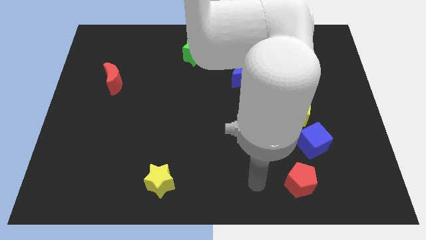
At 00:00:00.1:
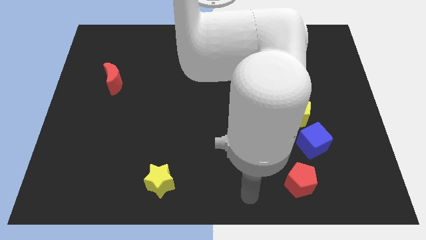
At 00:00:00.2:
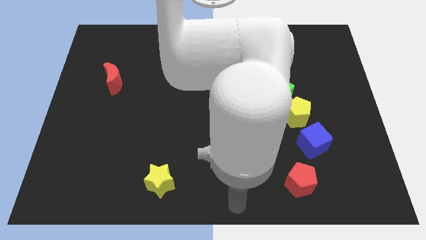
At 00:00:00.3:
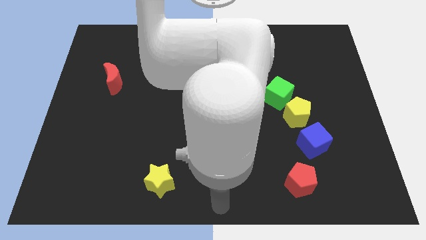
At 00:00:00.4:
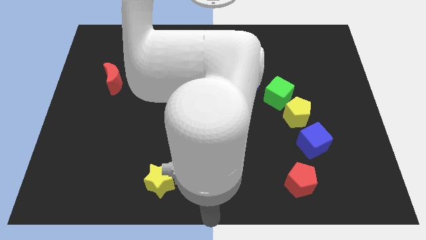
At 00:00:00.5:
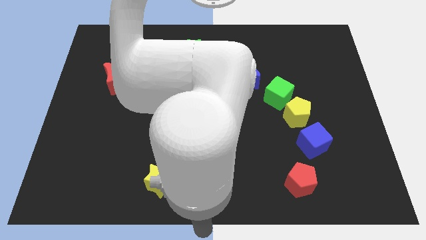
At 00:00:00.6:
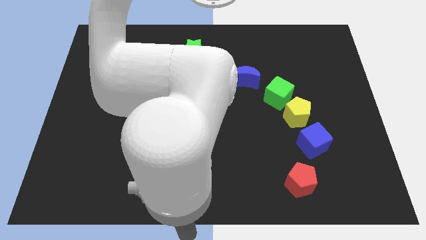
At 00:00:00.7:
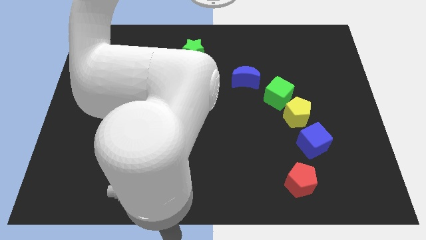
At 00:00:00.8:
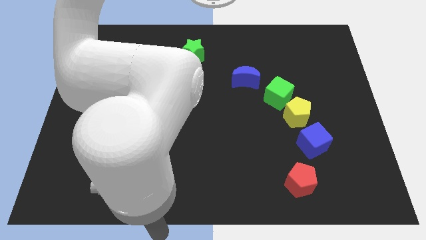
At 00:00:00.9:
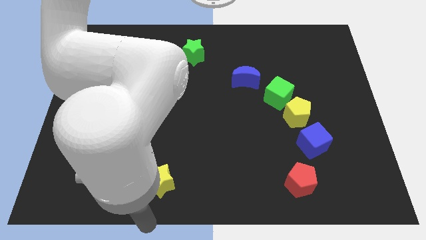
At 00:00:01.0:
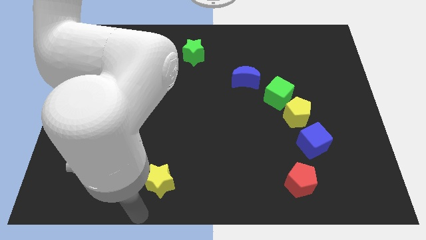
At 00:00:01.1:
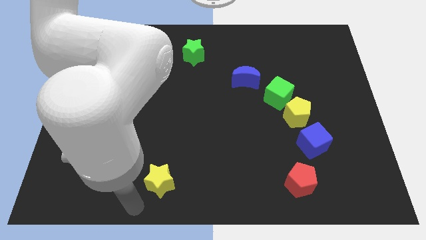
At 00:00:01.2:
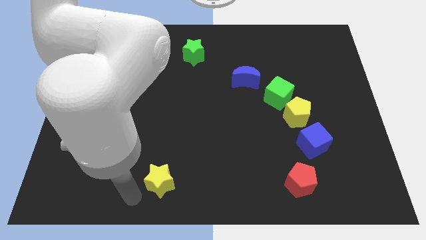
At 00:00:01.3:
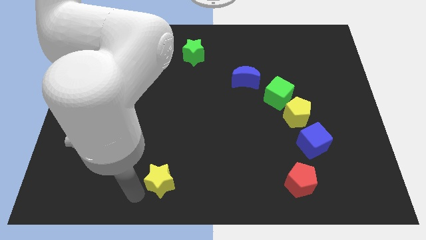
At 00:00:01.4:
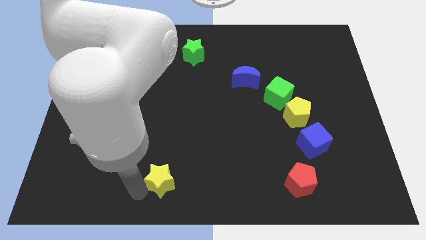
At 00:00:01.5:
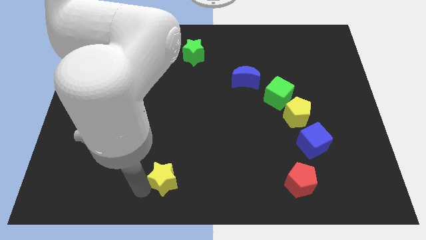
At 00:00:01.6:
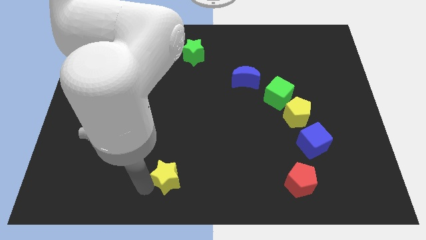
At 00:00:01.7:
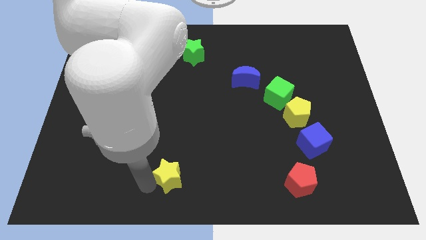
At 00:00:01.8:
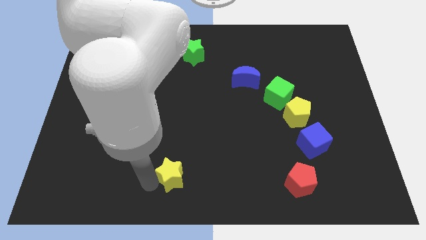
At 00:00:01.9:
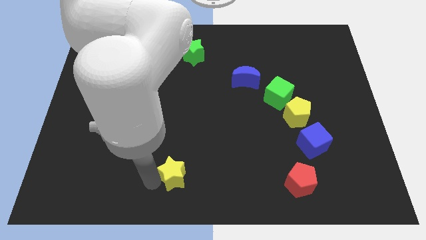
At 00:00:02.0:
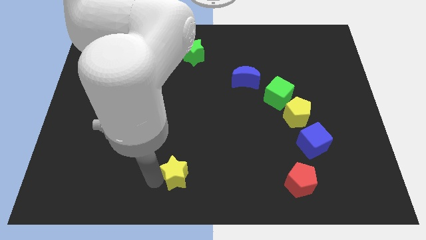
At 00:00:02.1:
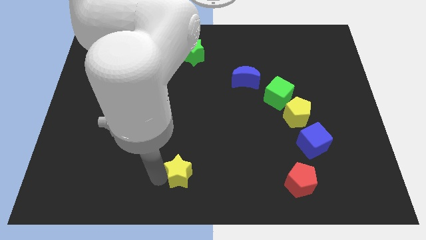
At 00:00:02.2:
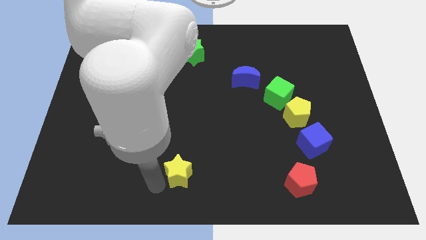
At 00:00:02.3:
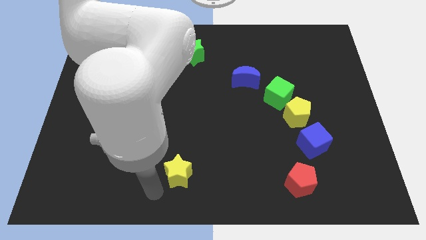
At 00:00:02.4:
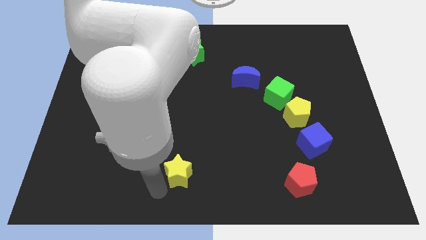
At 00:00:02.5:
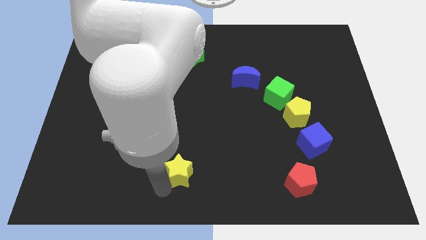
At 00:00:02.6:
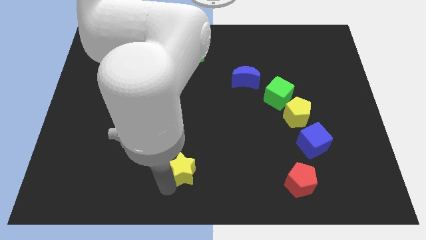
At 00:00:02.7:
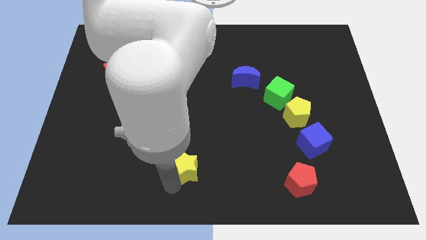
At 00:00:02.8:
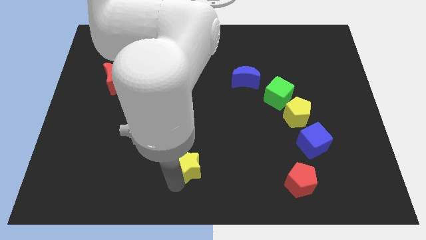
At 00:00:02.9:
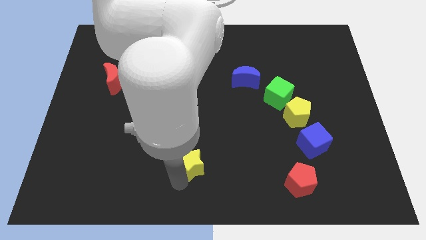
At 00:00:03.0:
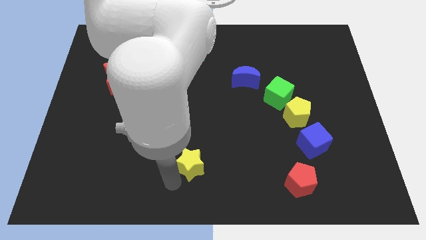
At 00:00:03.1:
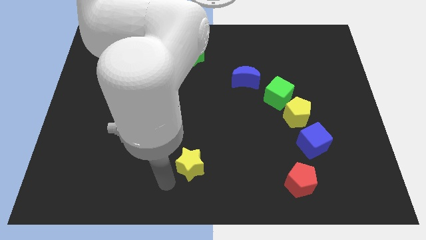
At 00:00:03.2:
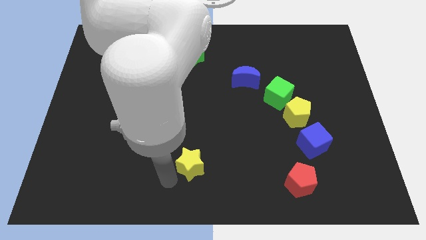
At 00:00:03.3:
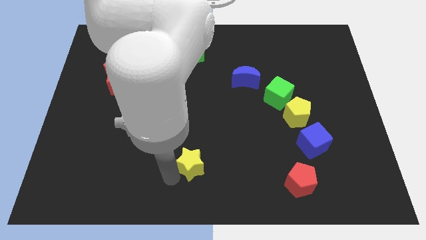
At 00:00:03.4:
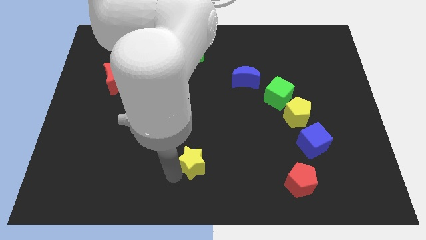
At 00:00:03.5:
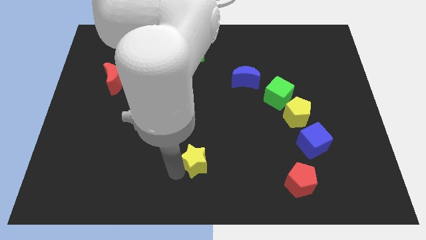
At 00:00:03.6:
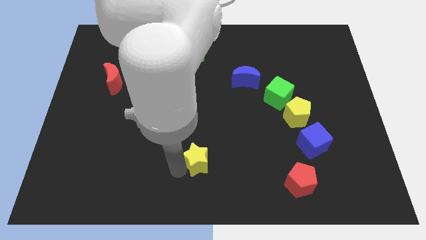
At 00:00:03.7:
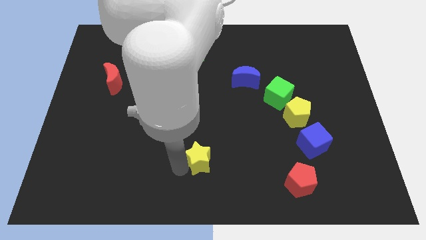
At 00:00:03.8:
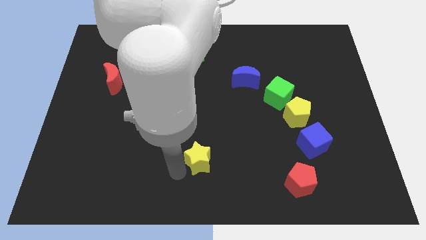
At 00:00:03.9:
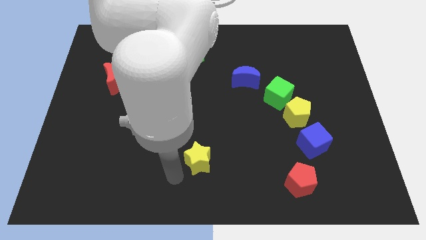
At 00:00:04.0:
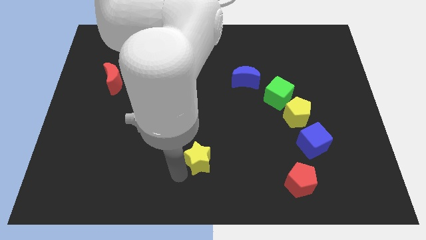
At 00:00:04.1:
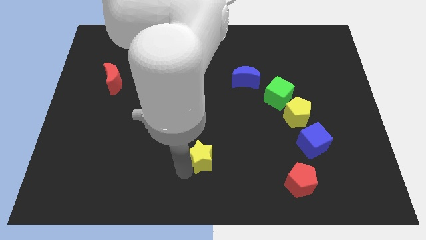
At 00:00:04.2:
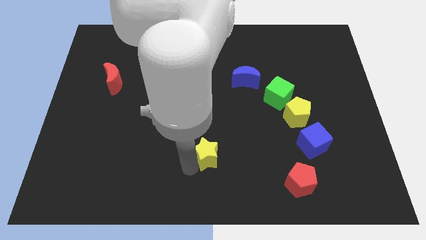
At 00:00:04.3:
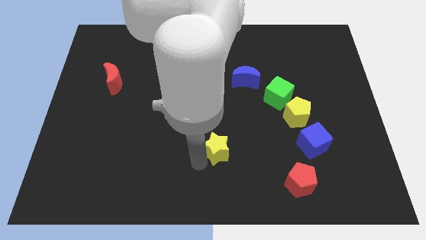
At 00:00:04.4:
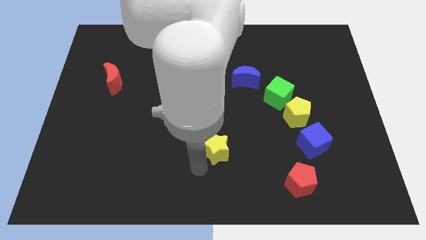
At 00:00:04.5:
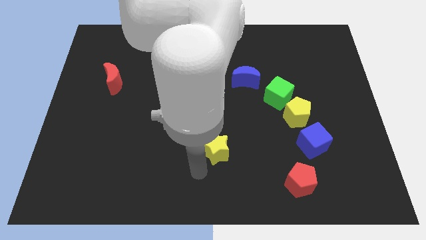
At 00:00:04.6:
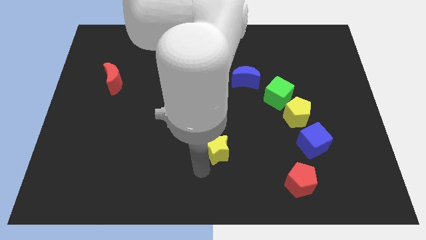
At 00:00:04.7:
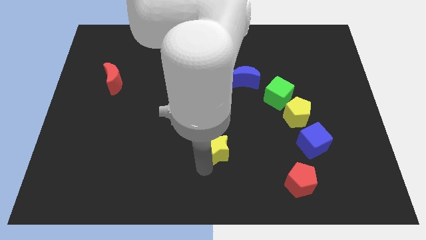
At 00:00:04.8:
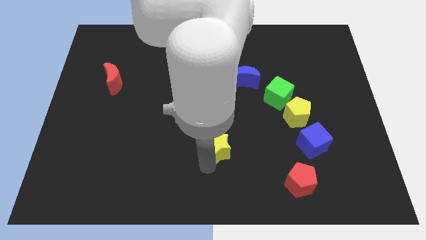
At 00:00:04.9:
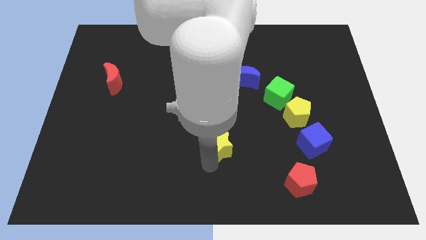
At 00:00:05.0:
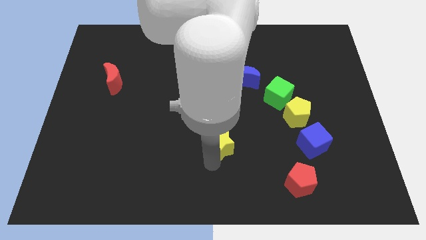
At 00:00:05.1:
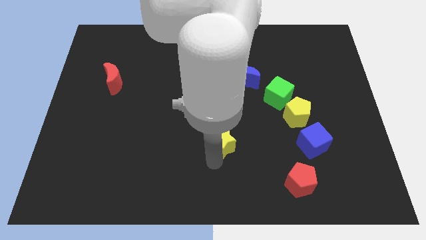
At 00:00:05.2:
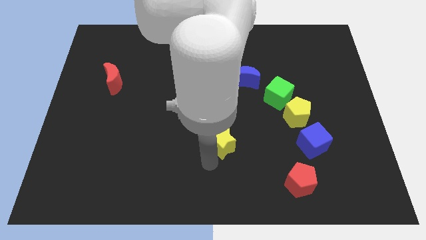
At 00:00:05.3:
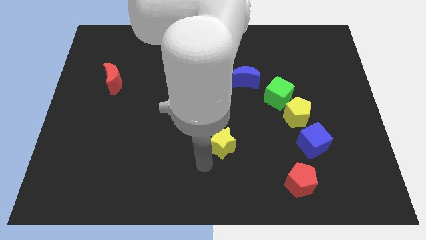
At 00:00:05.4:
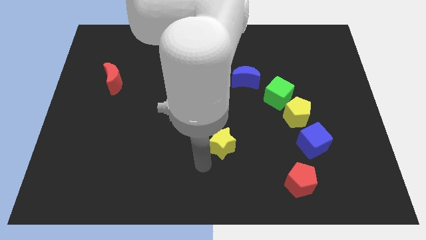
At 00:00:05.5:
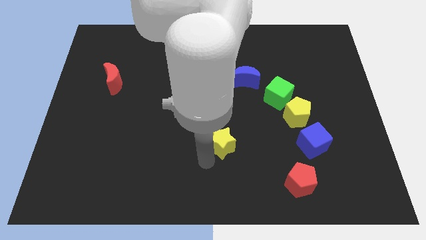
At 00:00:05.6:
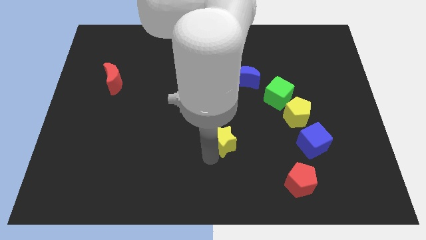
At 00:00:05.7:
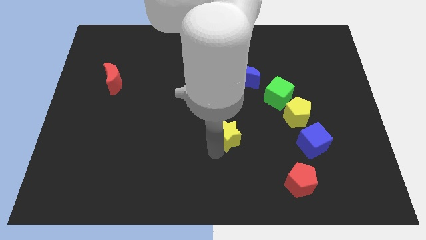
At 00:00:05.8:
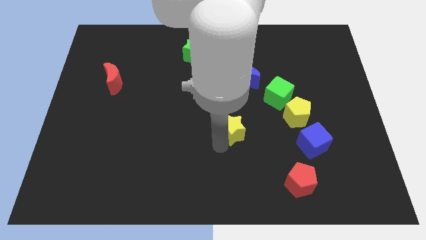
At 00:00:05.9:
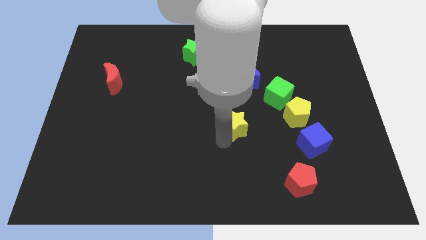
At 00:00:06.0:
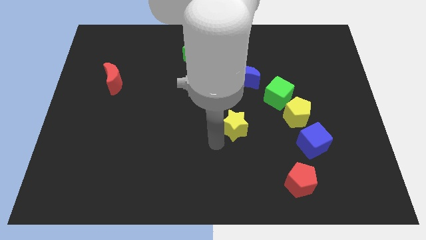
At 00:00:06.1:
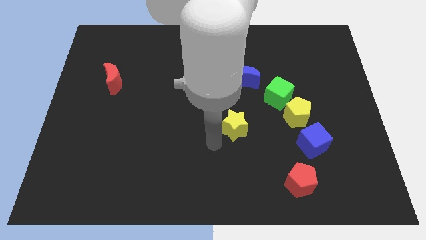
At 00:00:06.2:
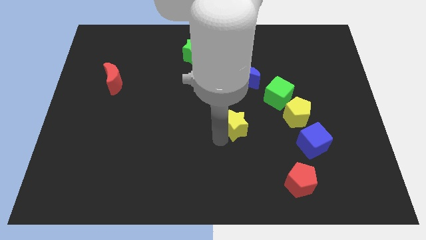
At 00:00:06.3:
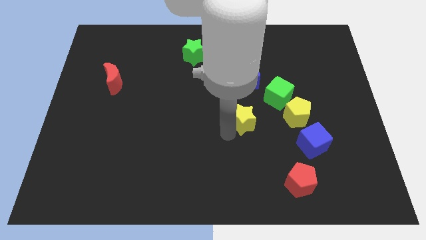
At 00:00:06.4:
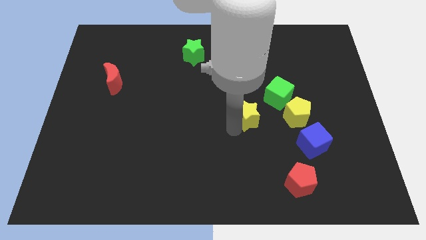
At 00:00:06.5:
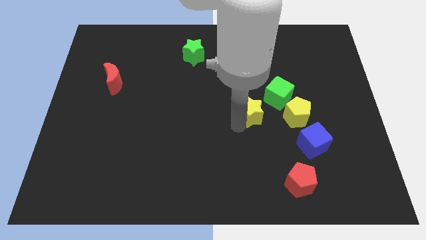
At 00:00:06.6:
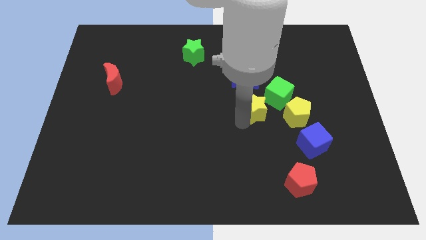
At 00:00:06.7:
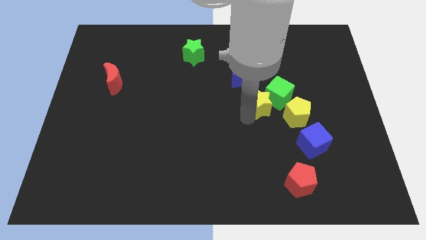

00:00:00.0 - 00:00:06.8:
push the yellow star close to the green cube
